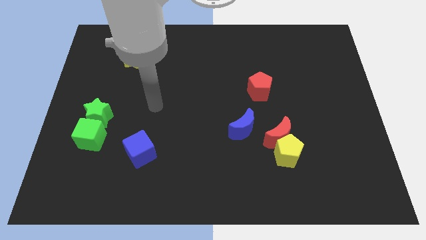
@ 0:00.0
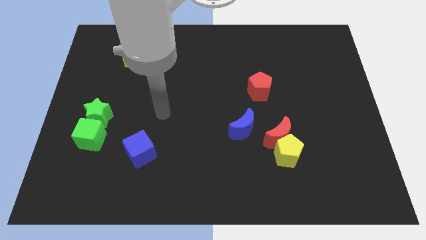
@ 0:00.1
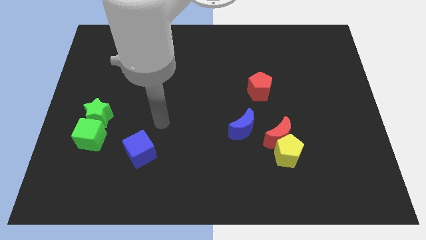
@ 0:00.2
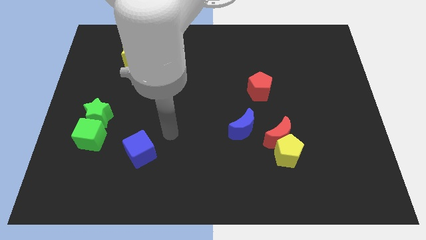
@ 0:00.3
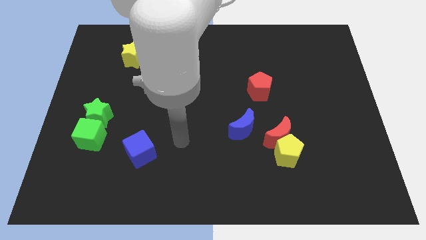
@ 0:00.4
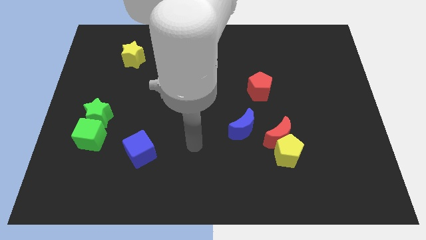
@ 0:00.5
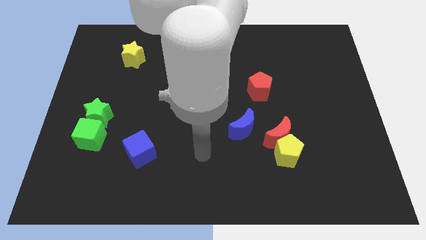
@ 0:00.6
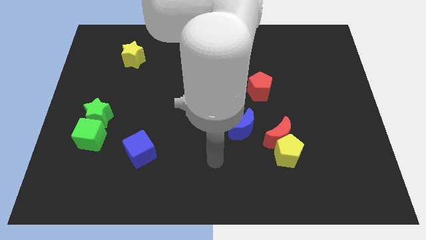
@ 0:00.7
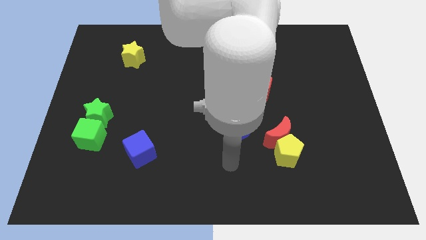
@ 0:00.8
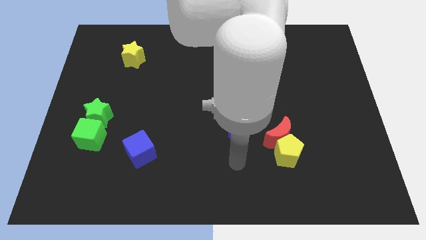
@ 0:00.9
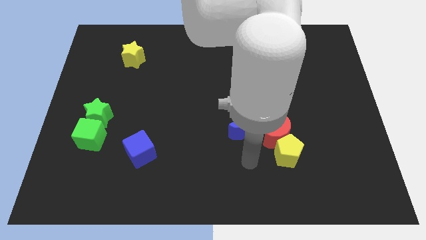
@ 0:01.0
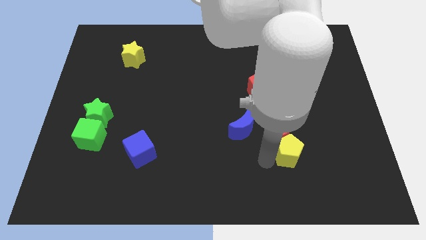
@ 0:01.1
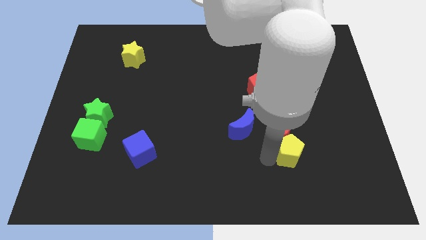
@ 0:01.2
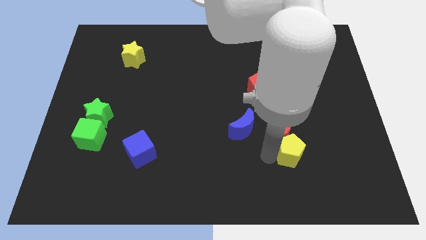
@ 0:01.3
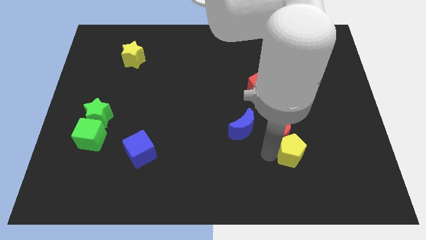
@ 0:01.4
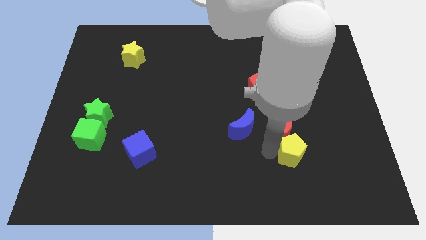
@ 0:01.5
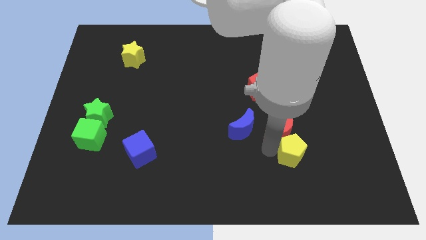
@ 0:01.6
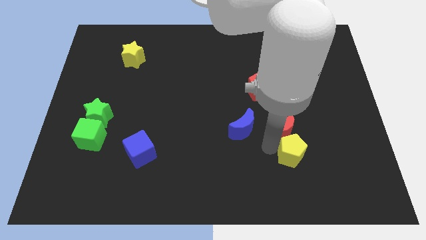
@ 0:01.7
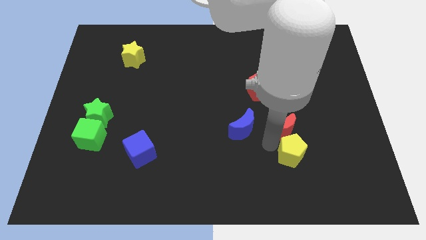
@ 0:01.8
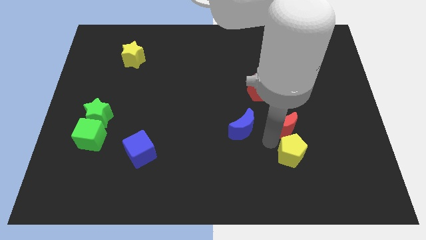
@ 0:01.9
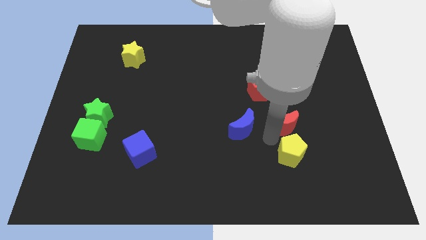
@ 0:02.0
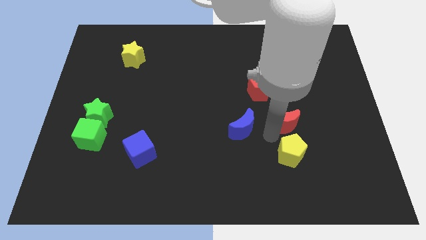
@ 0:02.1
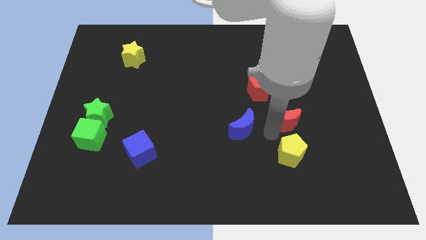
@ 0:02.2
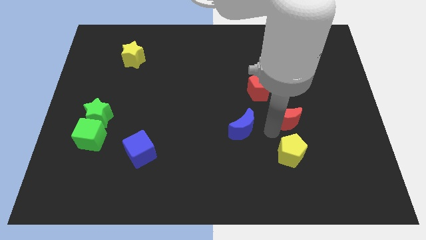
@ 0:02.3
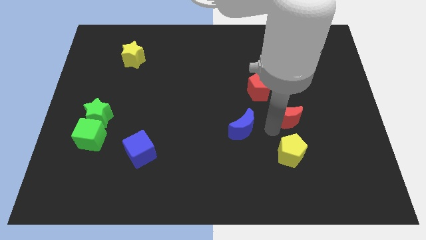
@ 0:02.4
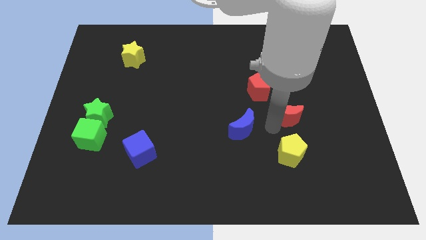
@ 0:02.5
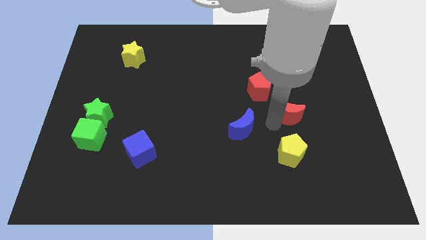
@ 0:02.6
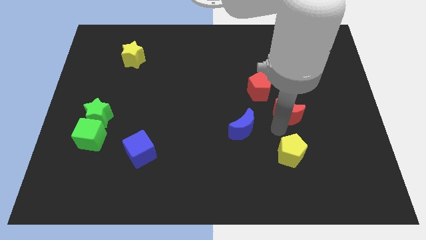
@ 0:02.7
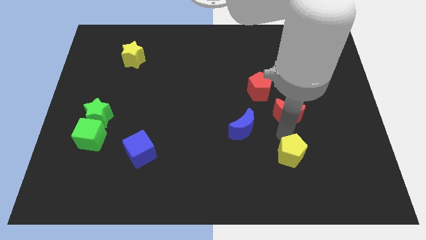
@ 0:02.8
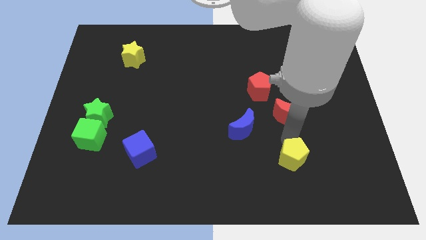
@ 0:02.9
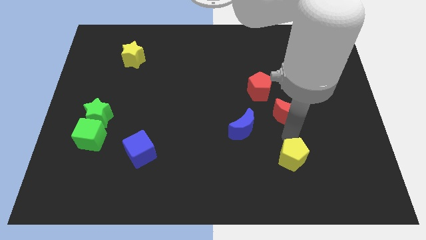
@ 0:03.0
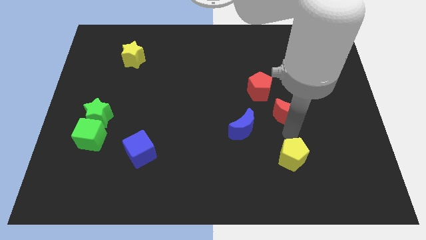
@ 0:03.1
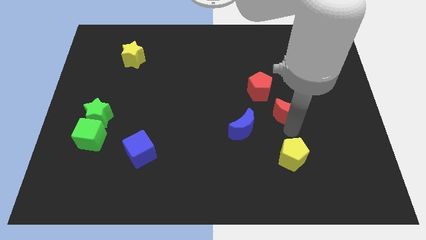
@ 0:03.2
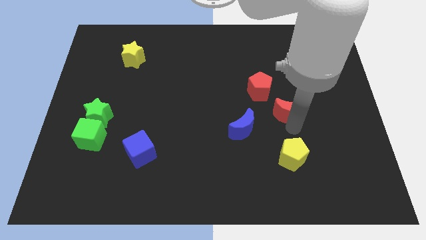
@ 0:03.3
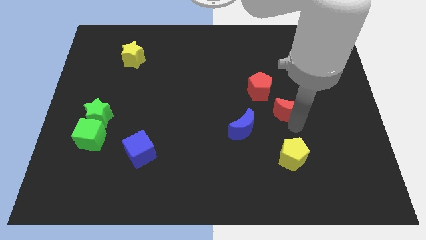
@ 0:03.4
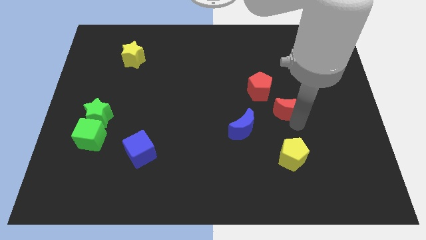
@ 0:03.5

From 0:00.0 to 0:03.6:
slightly slide the red moon upwards

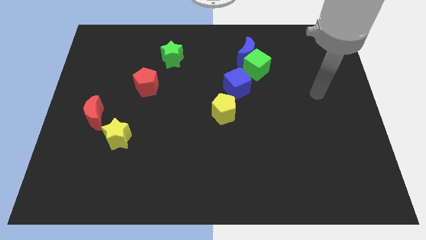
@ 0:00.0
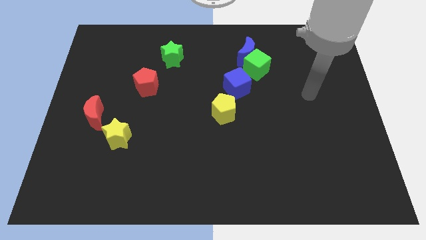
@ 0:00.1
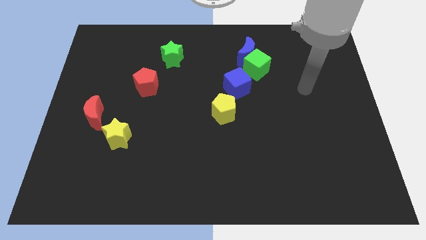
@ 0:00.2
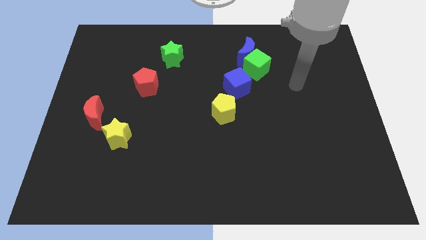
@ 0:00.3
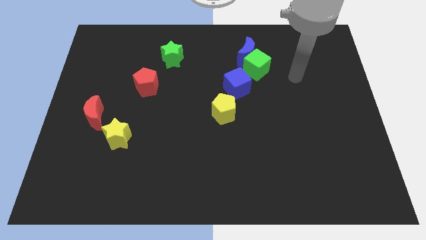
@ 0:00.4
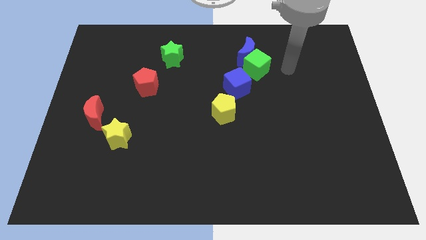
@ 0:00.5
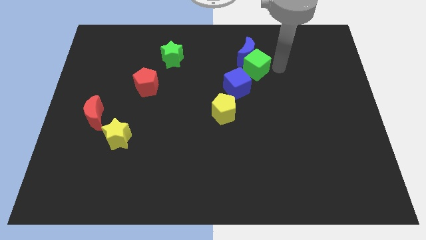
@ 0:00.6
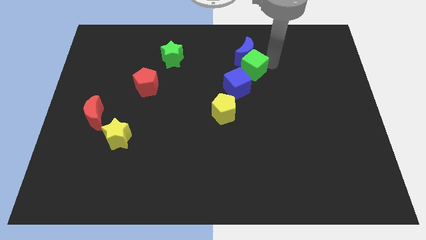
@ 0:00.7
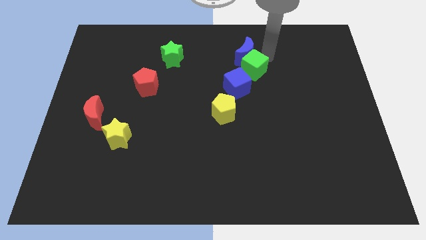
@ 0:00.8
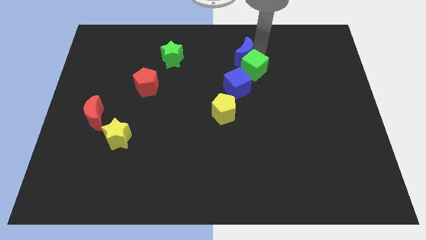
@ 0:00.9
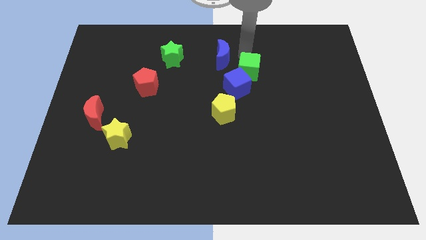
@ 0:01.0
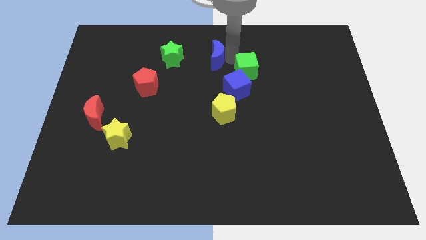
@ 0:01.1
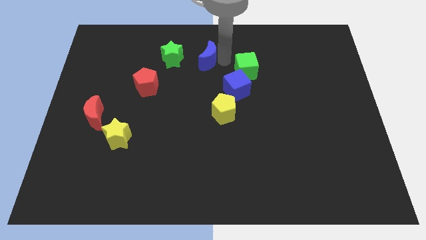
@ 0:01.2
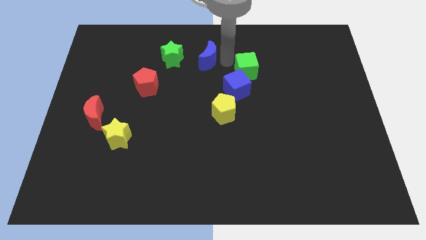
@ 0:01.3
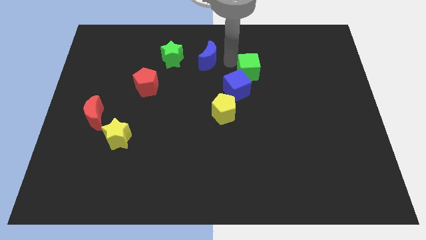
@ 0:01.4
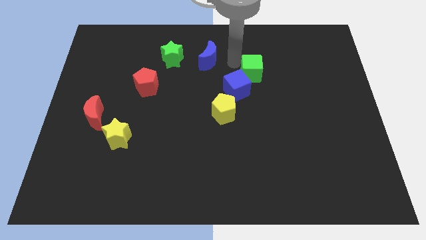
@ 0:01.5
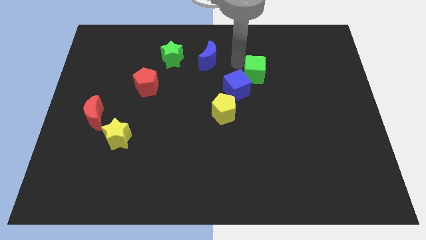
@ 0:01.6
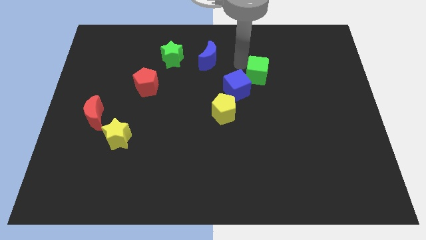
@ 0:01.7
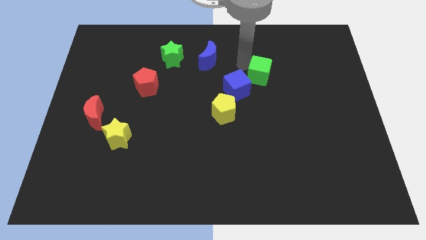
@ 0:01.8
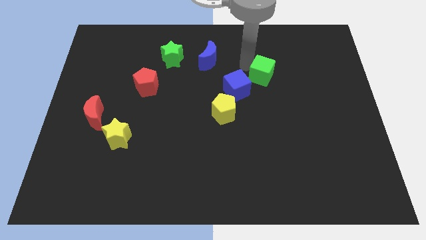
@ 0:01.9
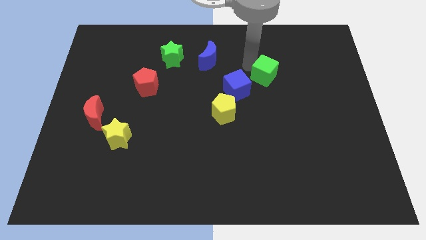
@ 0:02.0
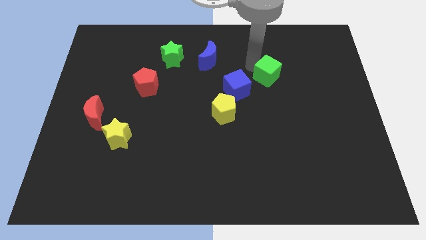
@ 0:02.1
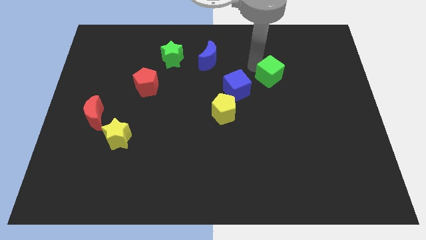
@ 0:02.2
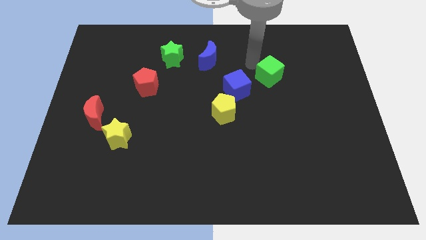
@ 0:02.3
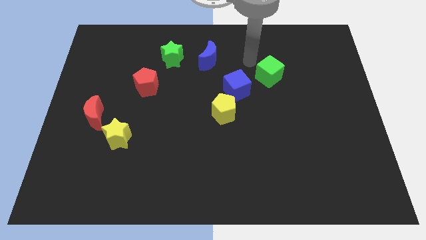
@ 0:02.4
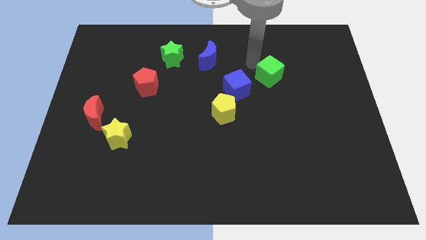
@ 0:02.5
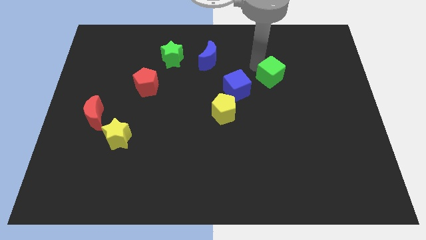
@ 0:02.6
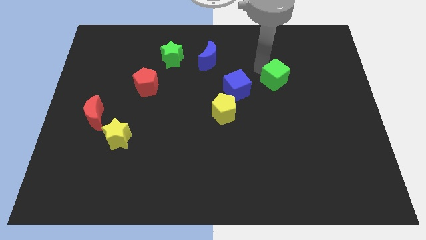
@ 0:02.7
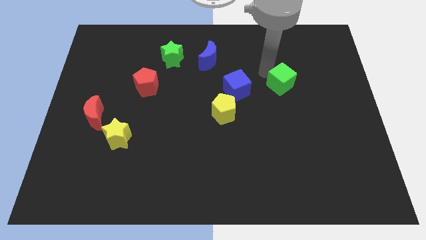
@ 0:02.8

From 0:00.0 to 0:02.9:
slightly push the green cube diagonally downwards and to the right

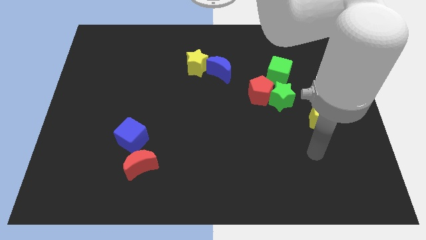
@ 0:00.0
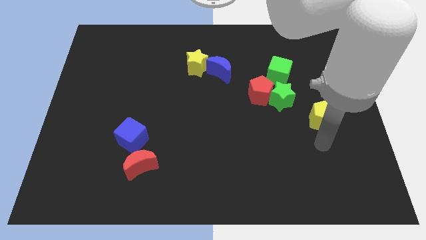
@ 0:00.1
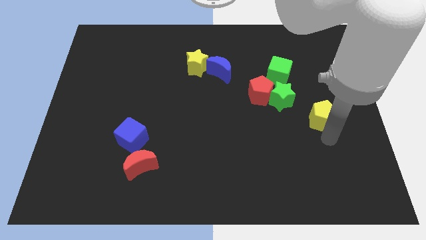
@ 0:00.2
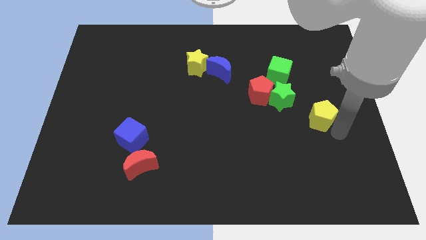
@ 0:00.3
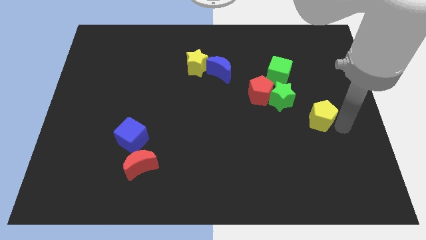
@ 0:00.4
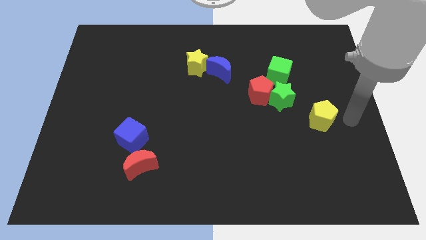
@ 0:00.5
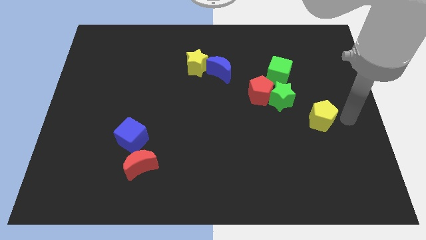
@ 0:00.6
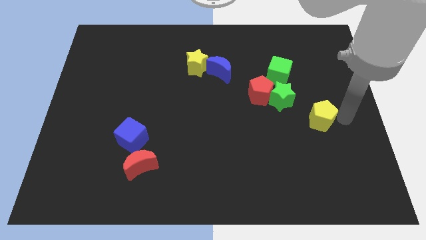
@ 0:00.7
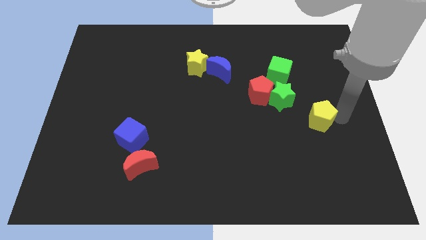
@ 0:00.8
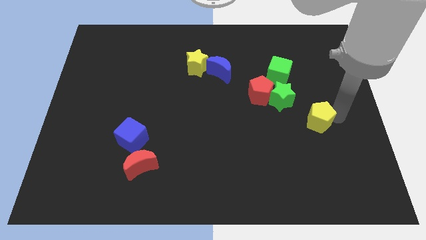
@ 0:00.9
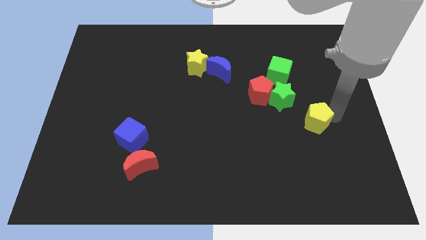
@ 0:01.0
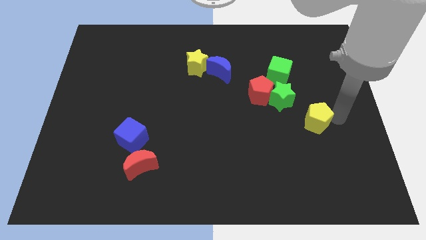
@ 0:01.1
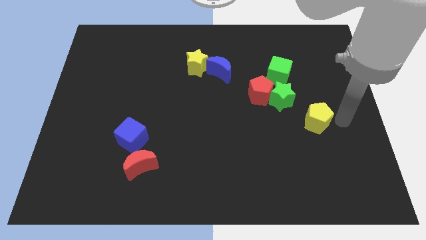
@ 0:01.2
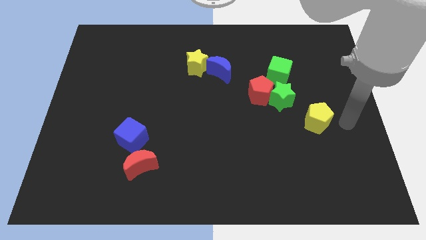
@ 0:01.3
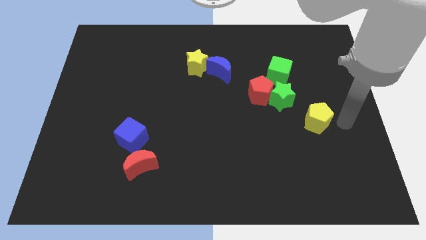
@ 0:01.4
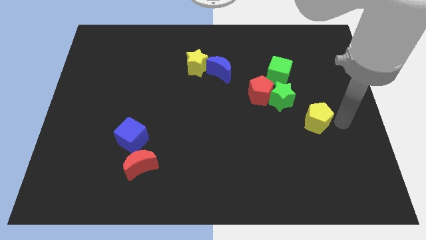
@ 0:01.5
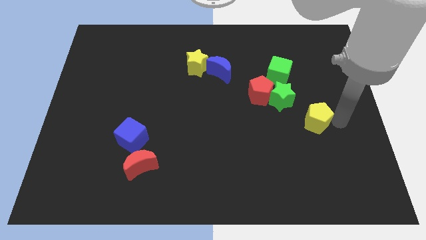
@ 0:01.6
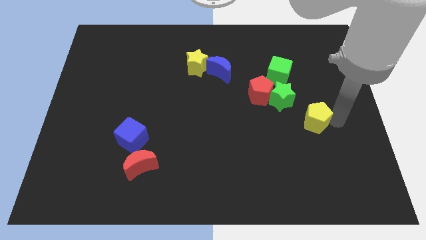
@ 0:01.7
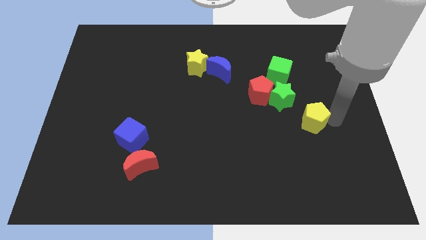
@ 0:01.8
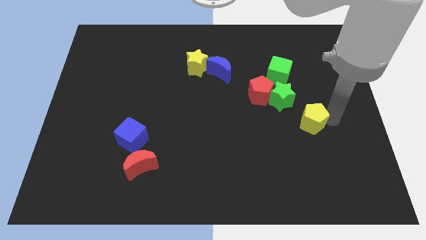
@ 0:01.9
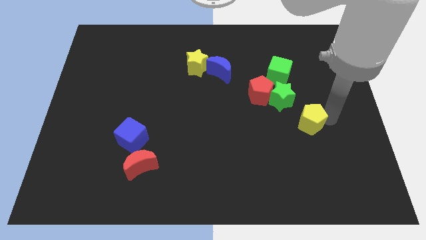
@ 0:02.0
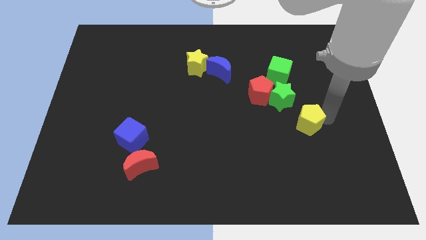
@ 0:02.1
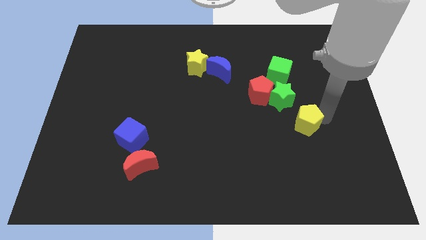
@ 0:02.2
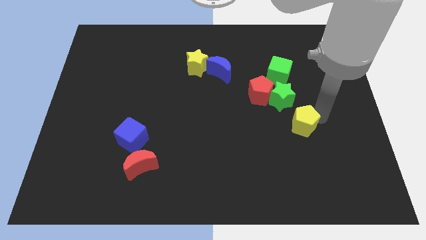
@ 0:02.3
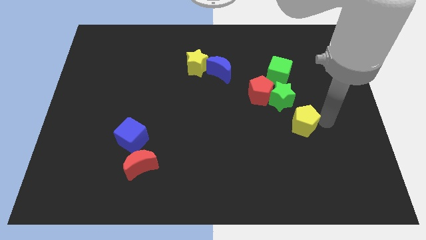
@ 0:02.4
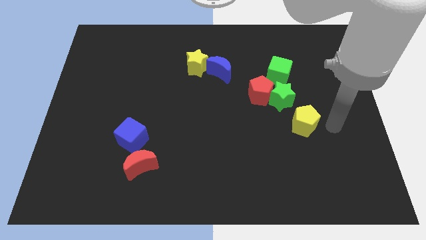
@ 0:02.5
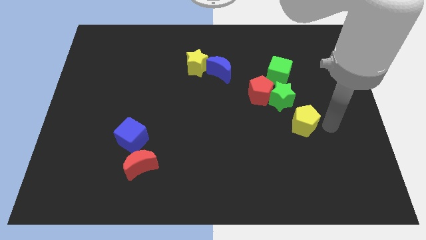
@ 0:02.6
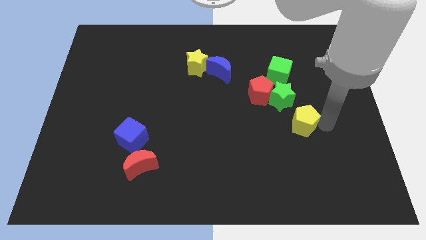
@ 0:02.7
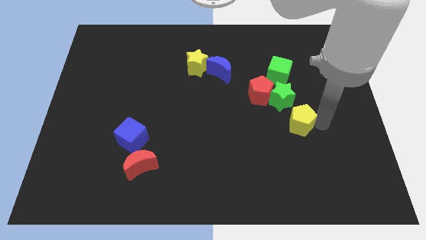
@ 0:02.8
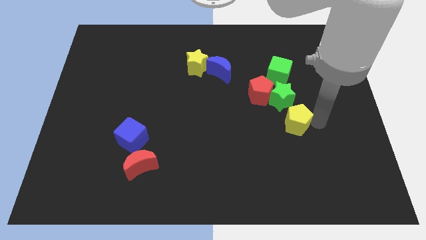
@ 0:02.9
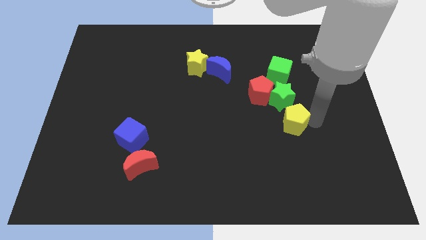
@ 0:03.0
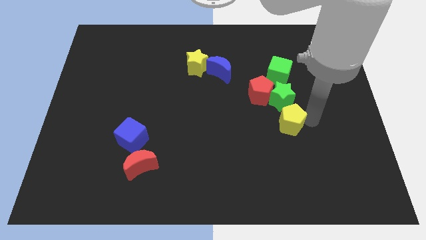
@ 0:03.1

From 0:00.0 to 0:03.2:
slightly push the yellow pentagon left
